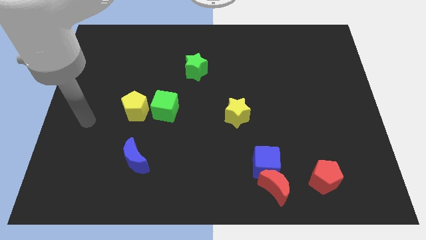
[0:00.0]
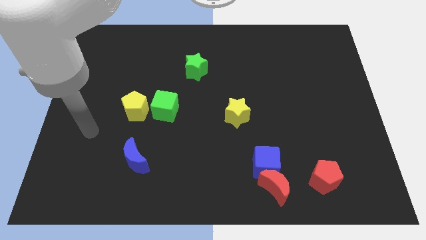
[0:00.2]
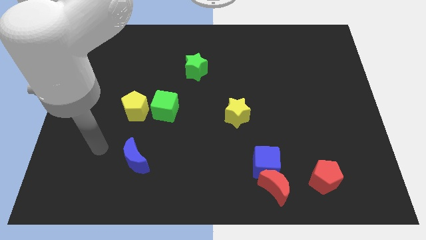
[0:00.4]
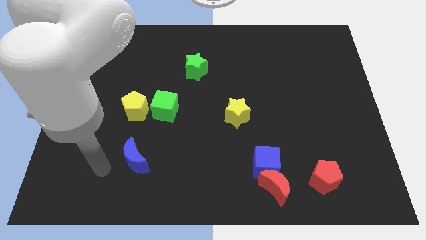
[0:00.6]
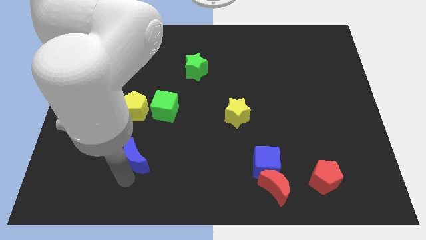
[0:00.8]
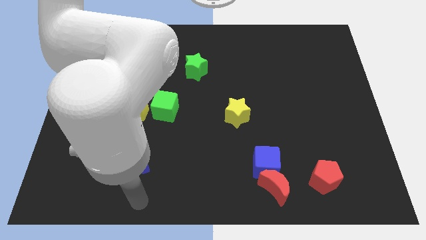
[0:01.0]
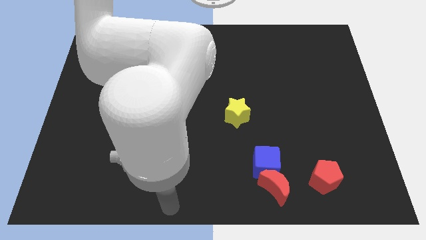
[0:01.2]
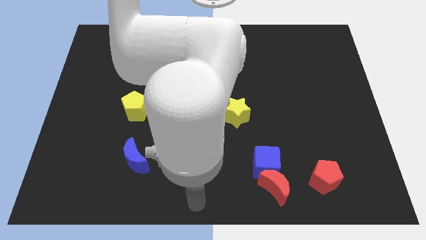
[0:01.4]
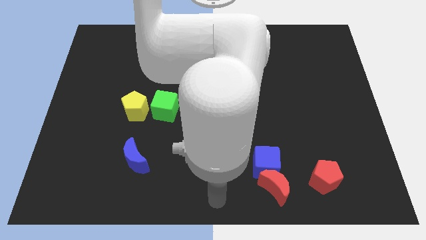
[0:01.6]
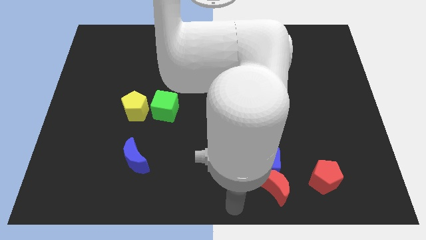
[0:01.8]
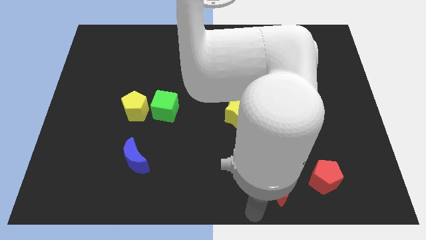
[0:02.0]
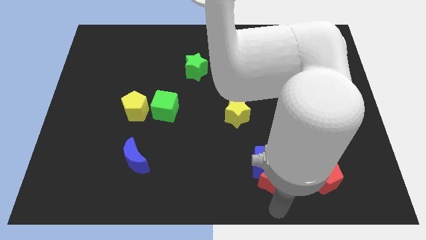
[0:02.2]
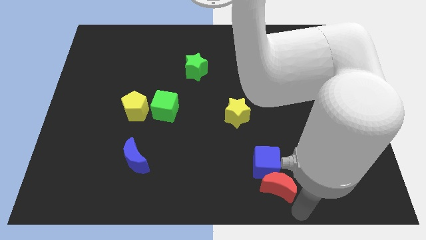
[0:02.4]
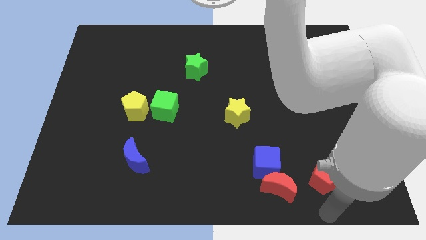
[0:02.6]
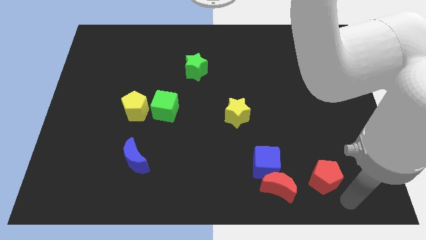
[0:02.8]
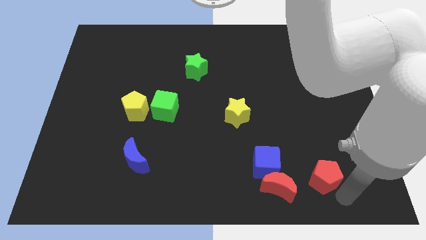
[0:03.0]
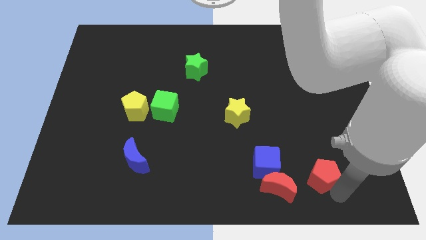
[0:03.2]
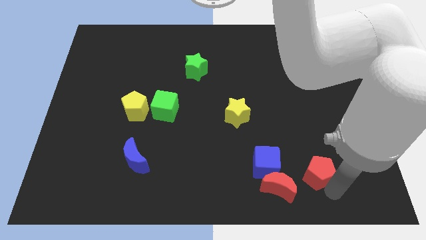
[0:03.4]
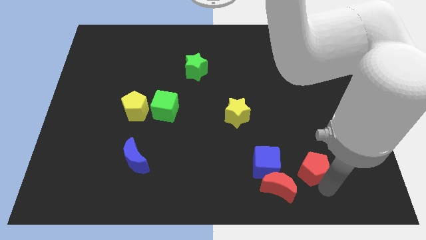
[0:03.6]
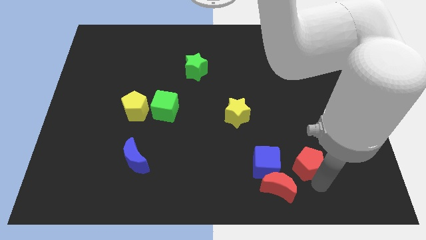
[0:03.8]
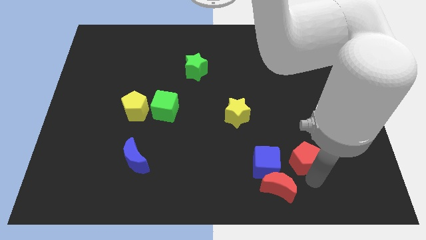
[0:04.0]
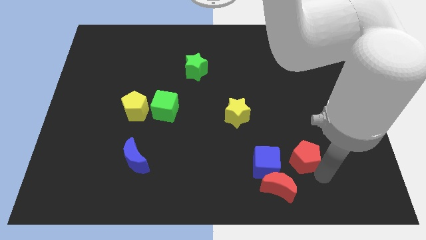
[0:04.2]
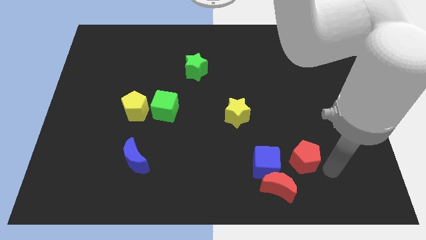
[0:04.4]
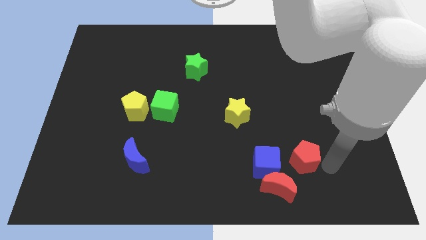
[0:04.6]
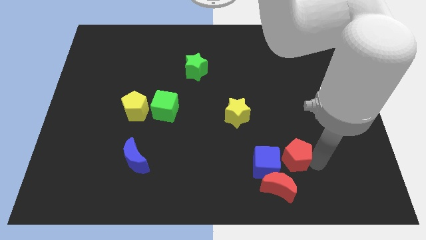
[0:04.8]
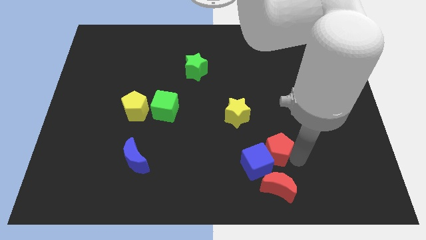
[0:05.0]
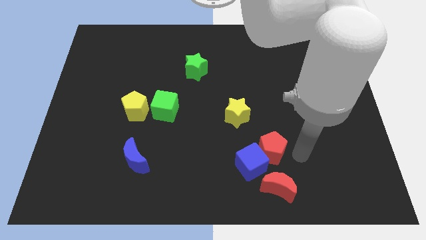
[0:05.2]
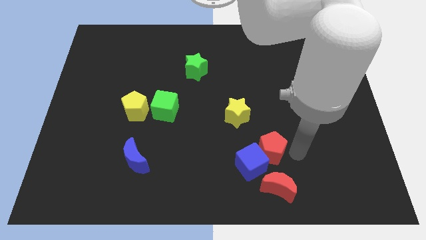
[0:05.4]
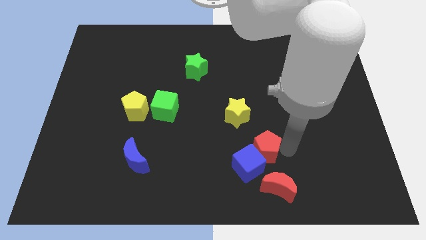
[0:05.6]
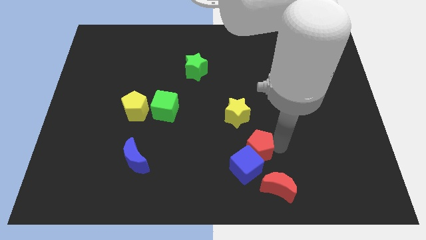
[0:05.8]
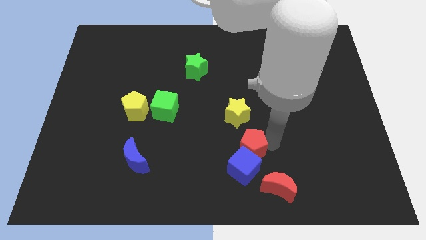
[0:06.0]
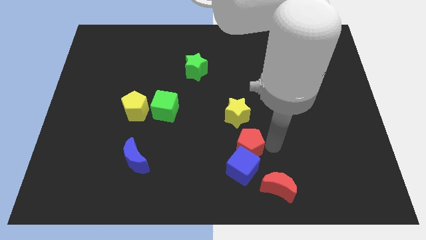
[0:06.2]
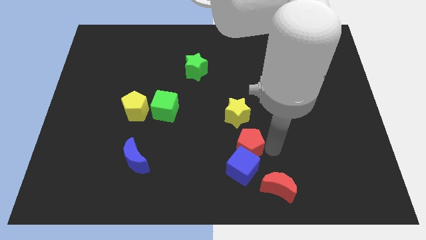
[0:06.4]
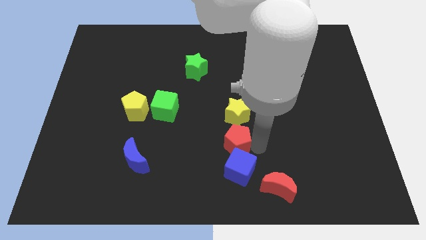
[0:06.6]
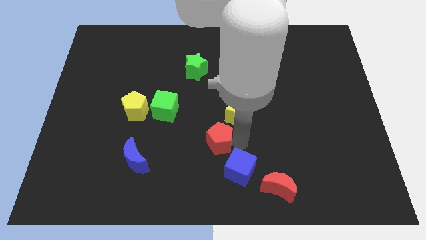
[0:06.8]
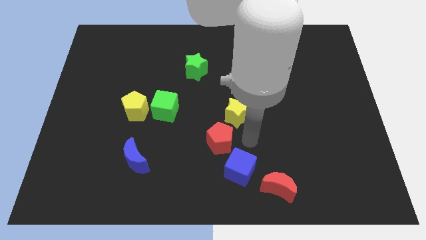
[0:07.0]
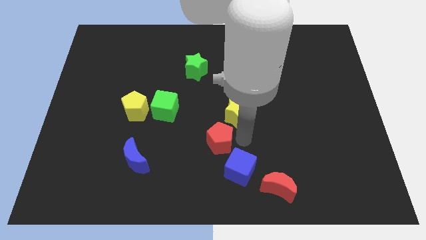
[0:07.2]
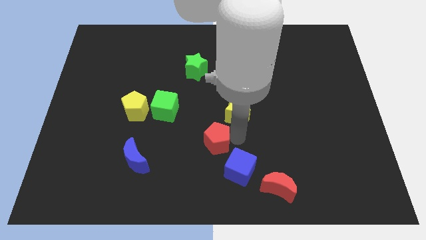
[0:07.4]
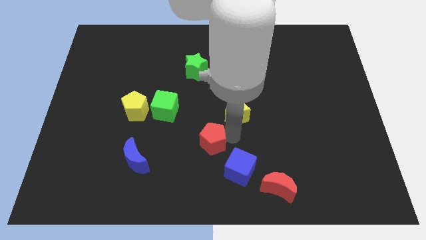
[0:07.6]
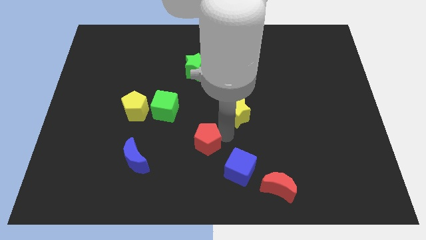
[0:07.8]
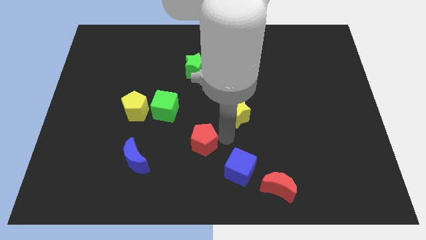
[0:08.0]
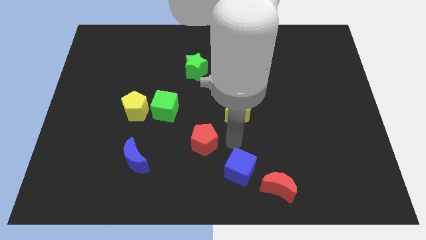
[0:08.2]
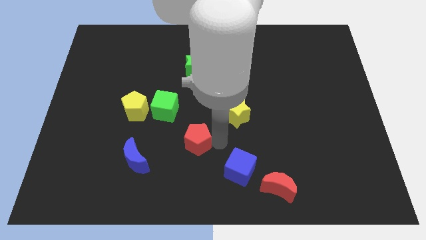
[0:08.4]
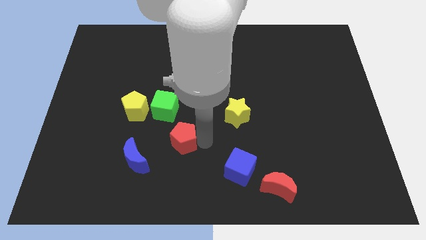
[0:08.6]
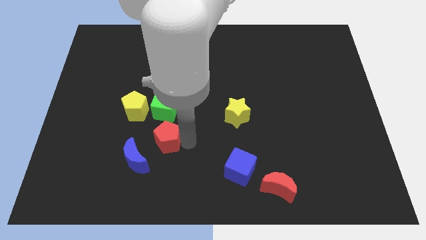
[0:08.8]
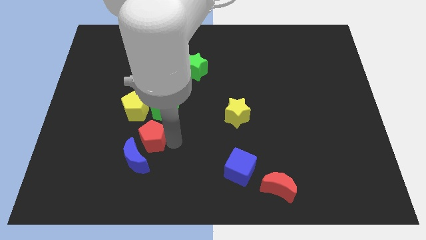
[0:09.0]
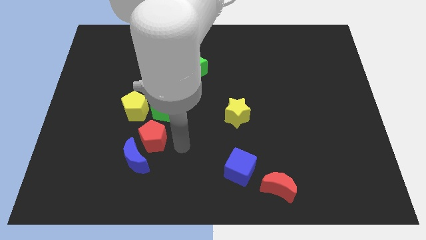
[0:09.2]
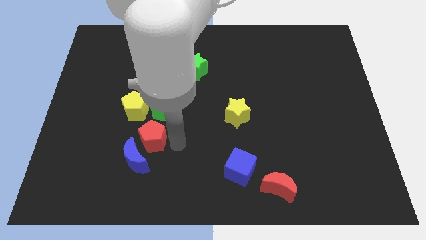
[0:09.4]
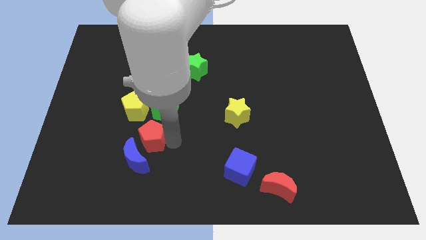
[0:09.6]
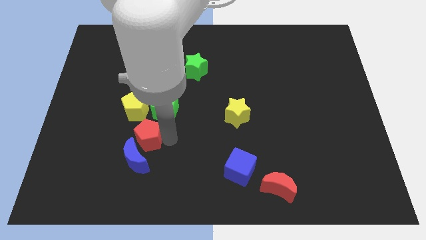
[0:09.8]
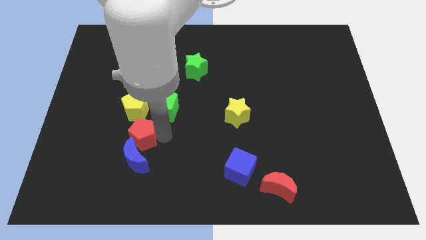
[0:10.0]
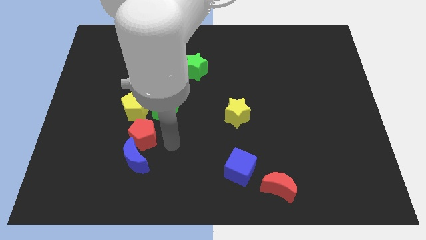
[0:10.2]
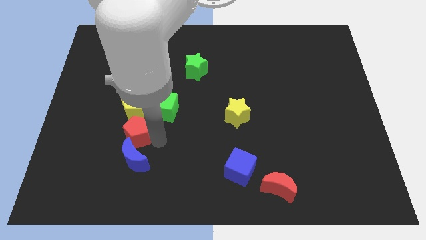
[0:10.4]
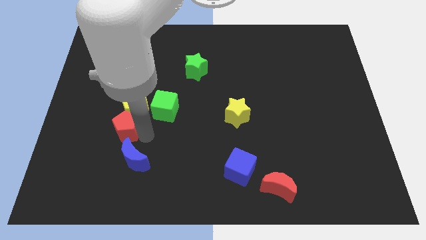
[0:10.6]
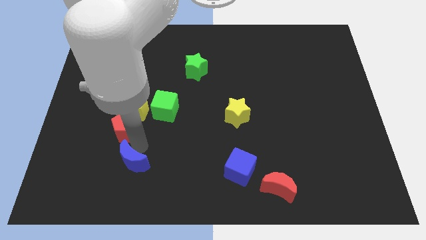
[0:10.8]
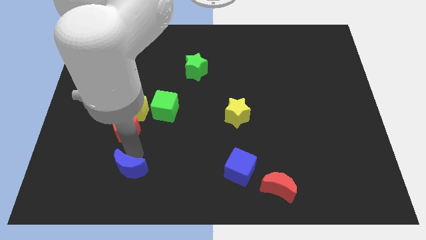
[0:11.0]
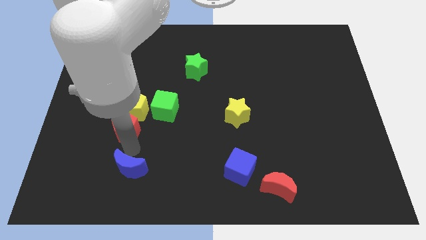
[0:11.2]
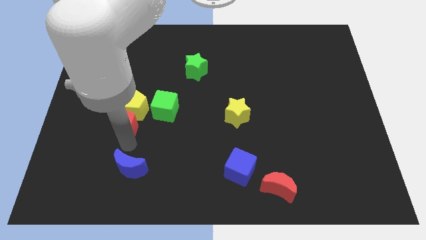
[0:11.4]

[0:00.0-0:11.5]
push the red pentagon to the left of the green cube
